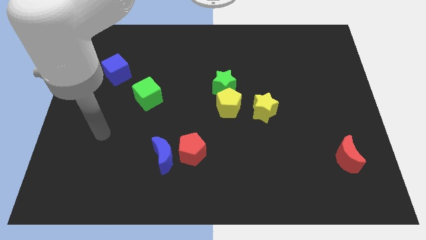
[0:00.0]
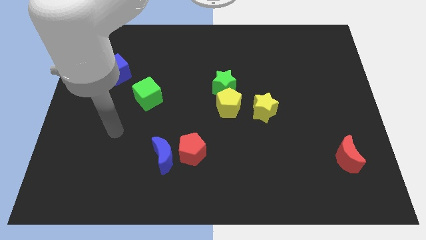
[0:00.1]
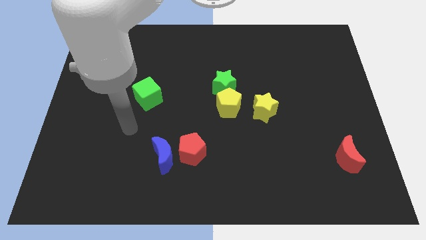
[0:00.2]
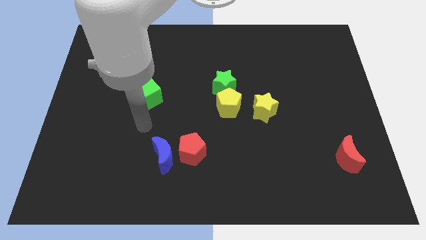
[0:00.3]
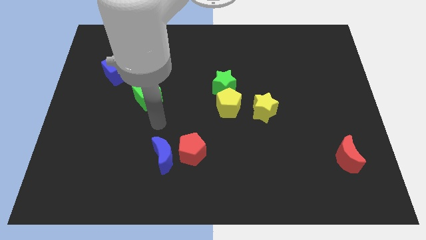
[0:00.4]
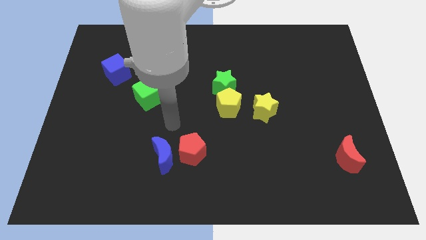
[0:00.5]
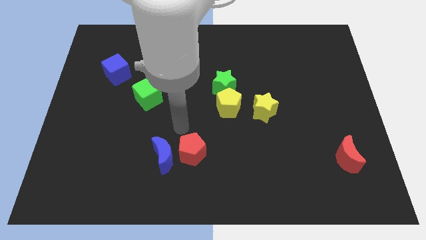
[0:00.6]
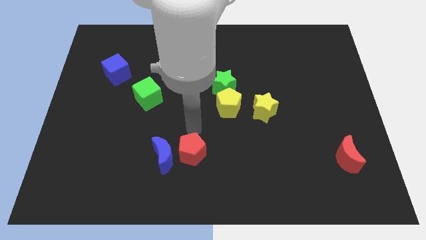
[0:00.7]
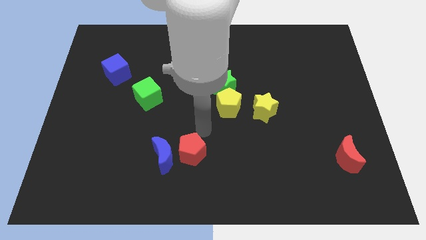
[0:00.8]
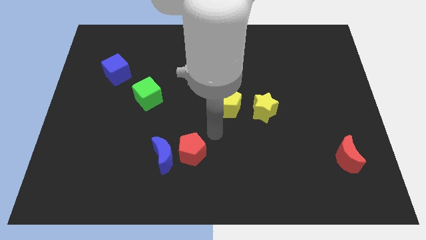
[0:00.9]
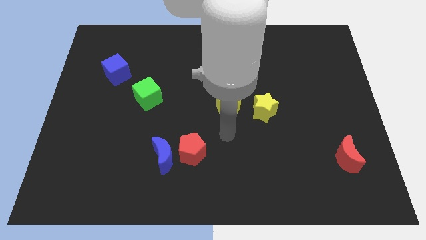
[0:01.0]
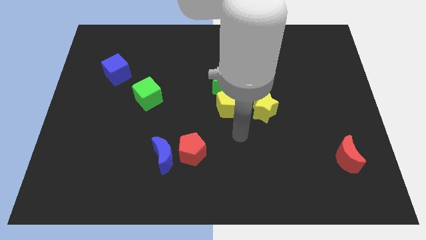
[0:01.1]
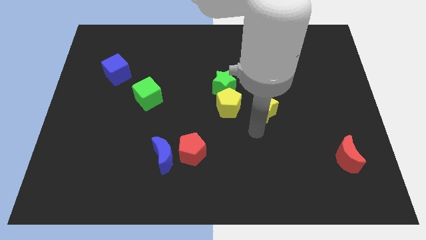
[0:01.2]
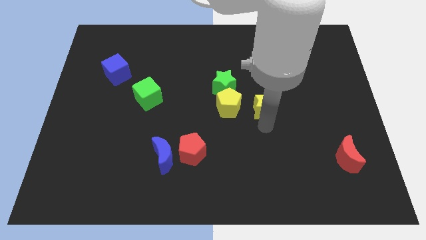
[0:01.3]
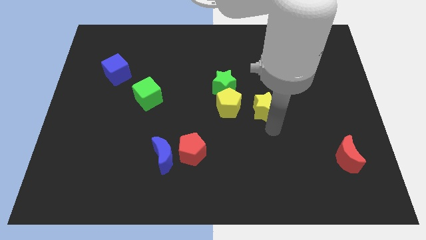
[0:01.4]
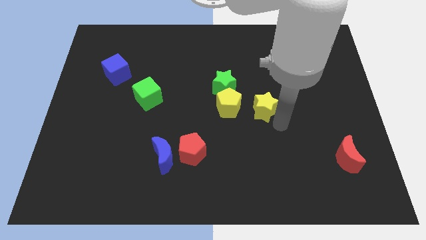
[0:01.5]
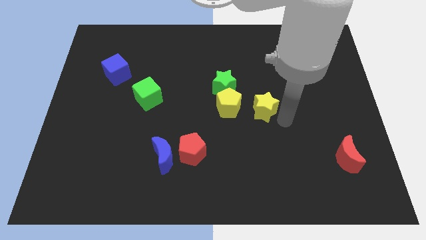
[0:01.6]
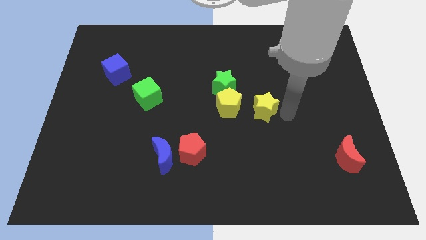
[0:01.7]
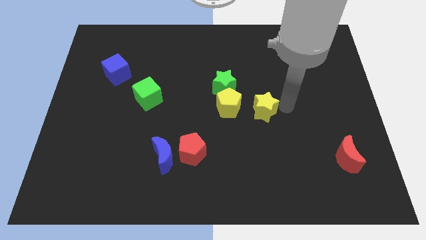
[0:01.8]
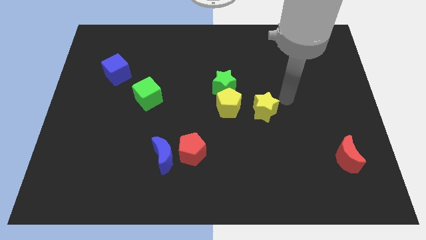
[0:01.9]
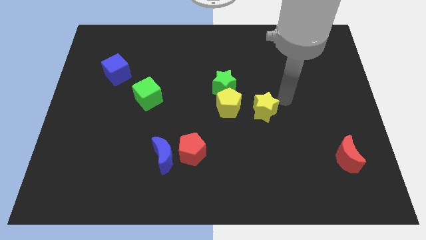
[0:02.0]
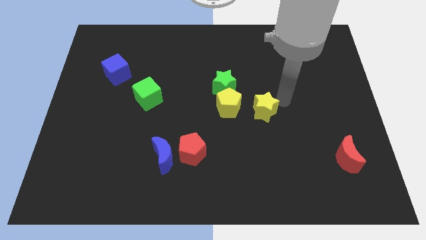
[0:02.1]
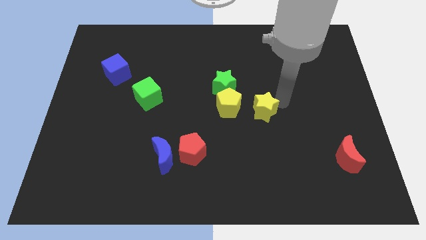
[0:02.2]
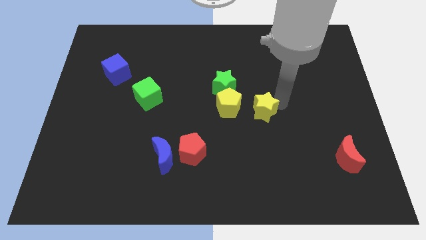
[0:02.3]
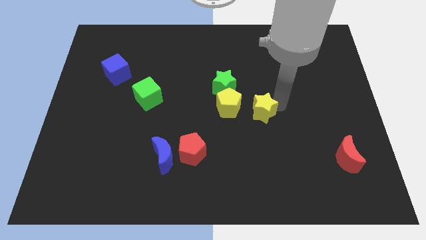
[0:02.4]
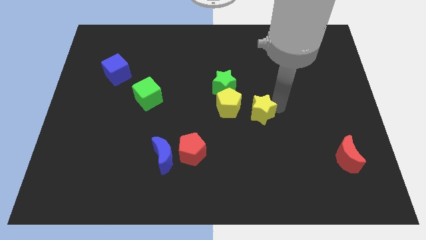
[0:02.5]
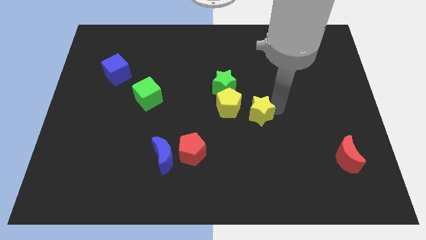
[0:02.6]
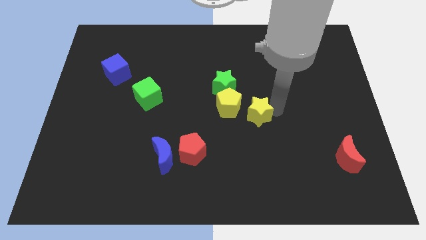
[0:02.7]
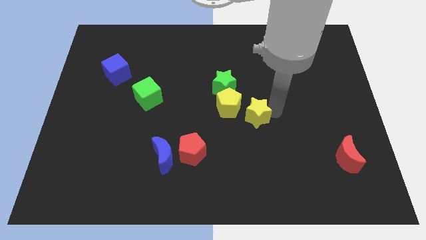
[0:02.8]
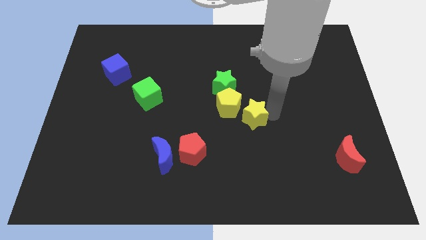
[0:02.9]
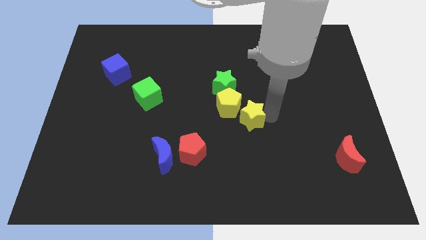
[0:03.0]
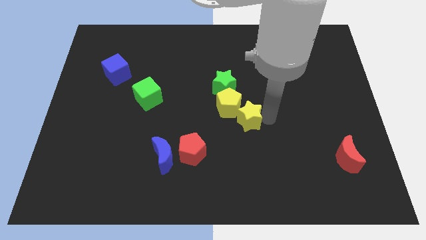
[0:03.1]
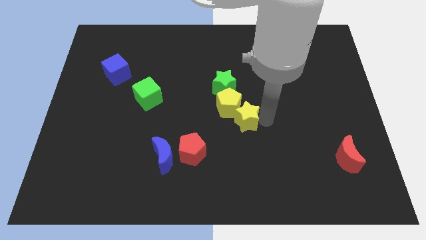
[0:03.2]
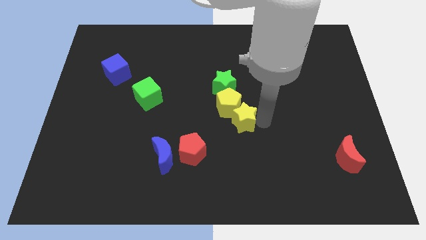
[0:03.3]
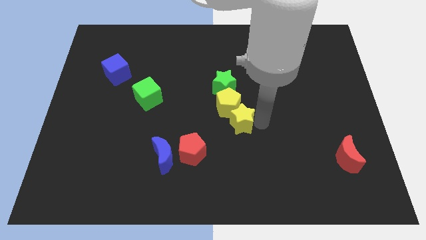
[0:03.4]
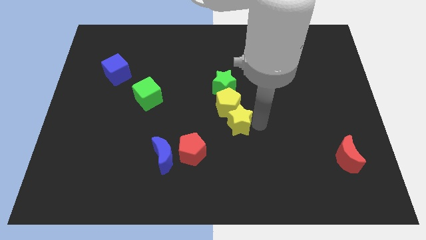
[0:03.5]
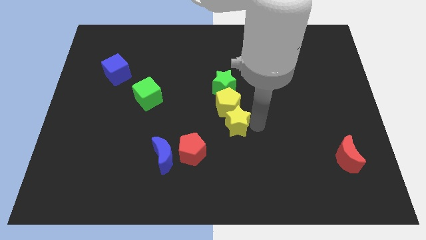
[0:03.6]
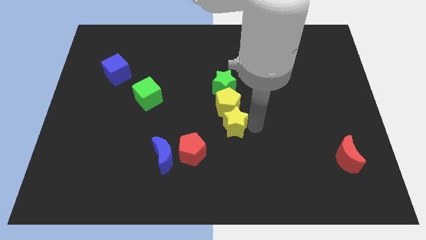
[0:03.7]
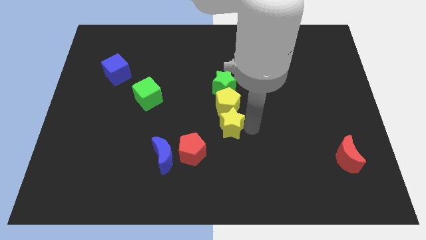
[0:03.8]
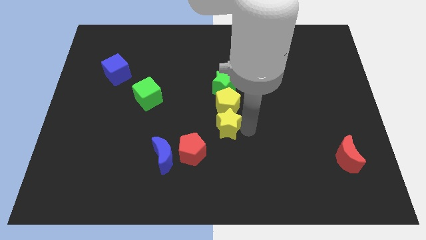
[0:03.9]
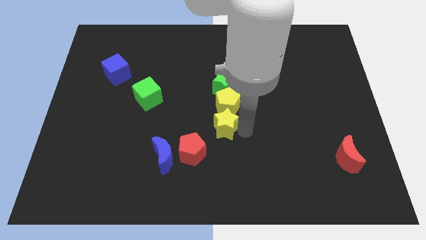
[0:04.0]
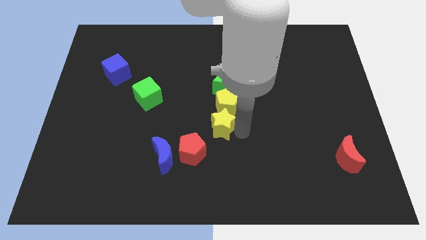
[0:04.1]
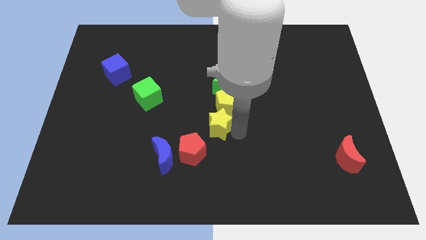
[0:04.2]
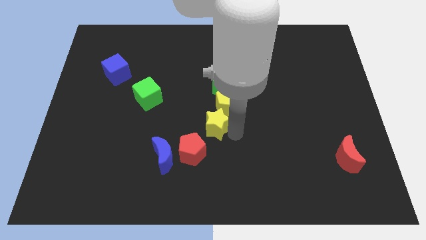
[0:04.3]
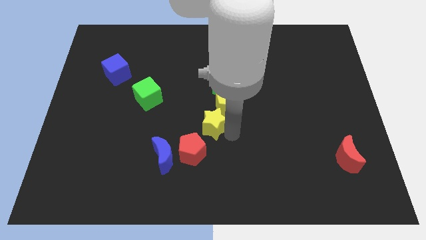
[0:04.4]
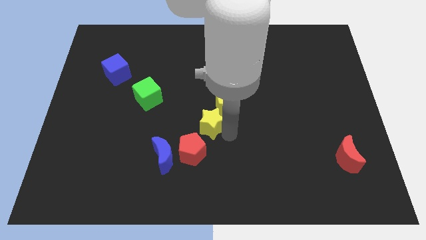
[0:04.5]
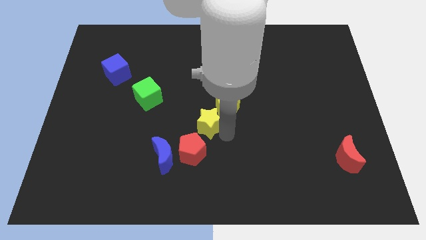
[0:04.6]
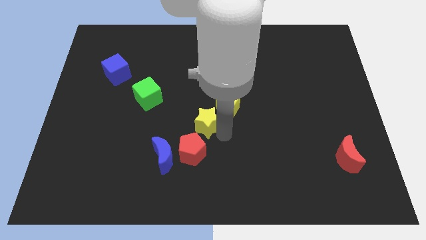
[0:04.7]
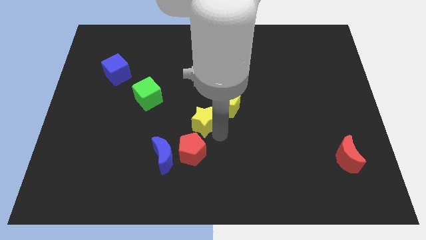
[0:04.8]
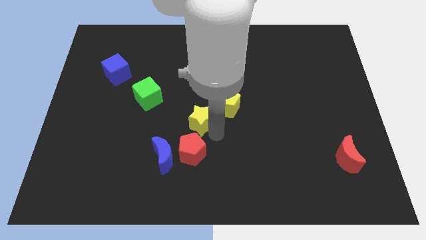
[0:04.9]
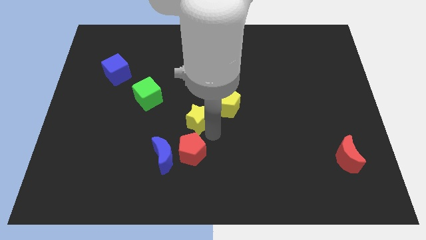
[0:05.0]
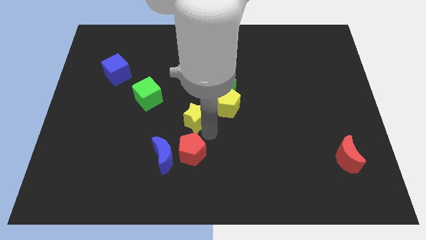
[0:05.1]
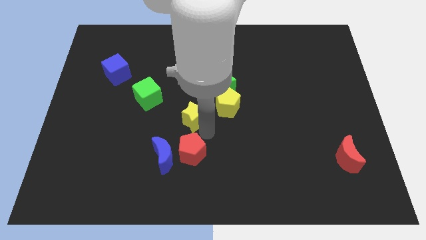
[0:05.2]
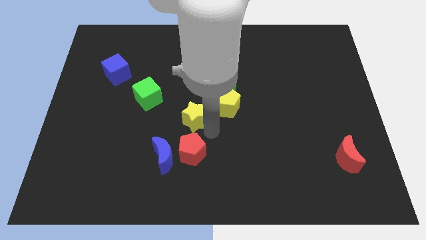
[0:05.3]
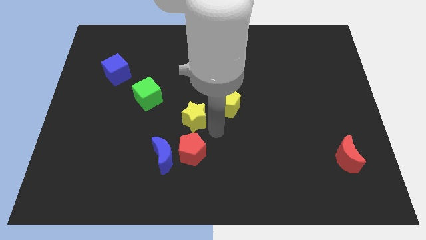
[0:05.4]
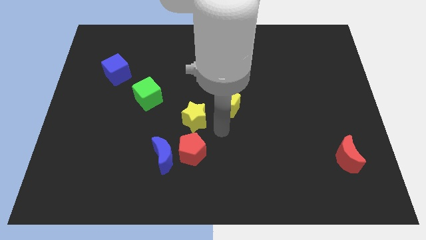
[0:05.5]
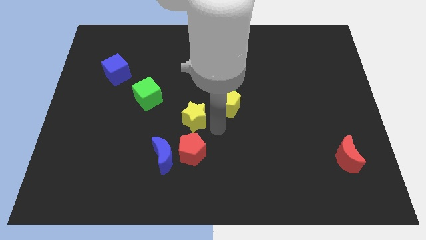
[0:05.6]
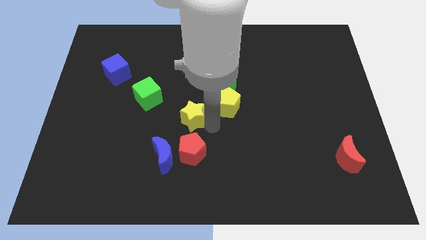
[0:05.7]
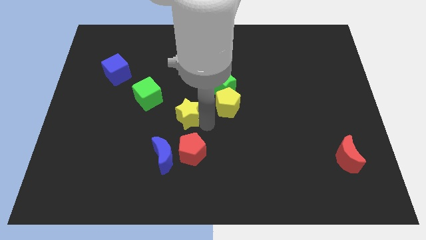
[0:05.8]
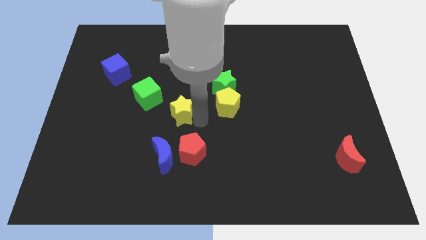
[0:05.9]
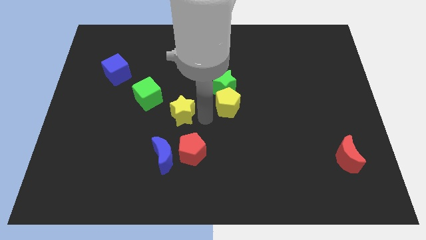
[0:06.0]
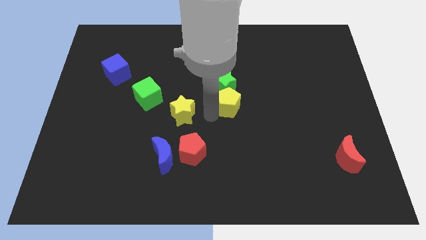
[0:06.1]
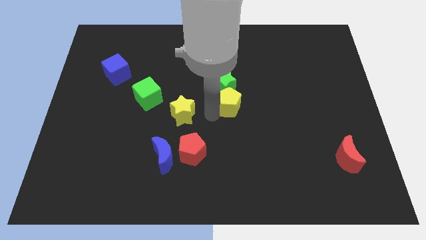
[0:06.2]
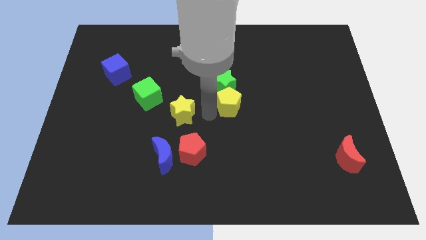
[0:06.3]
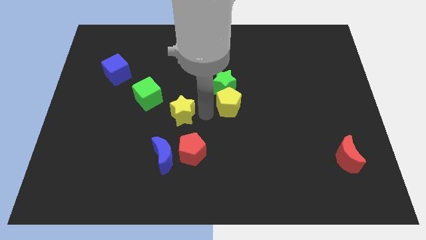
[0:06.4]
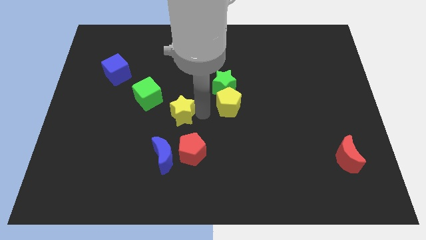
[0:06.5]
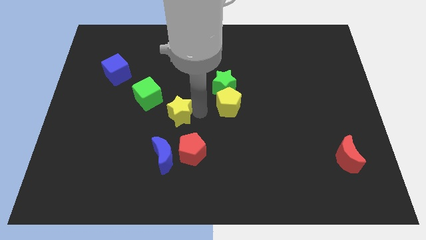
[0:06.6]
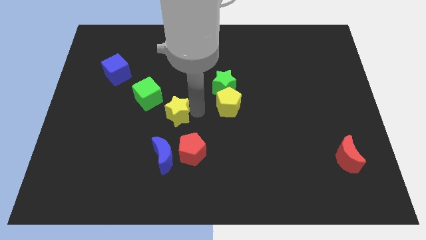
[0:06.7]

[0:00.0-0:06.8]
move the yellow star left

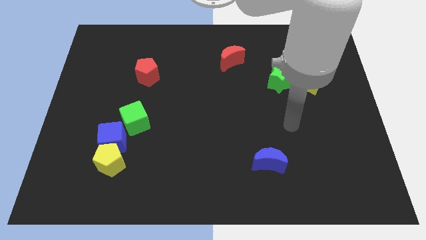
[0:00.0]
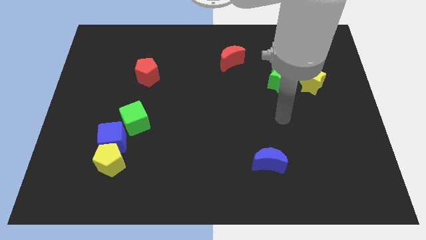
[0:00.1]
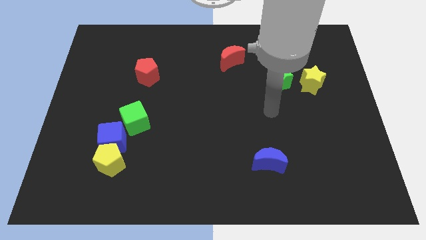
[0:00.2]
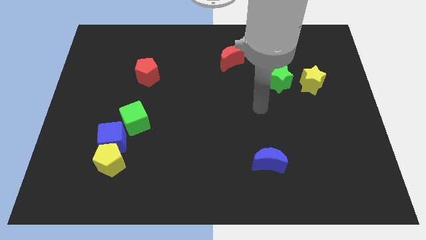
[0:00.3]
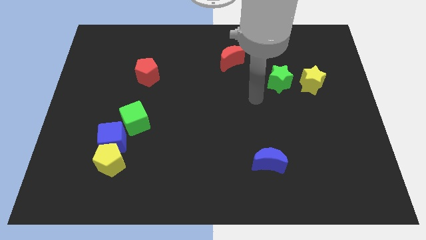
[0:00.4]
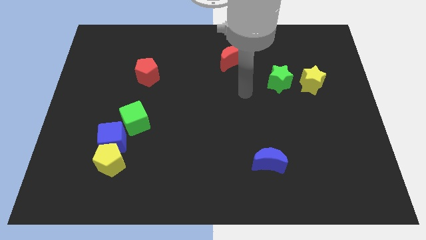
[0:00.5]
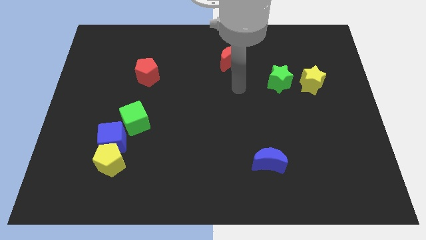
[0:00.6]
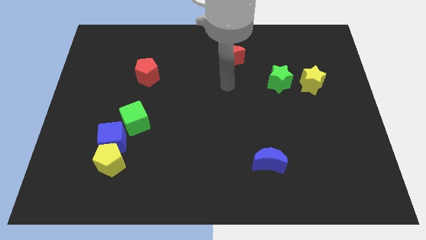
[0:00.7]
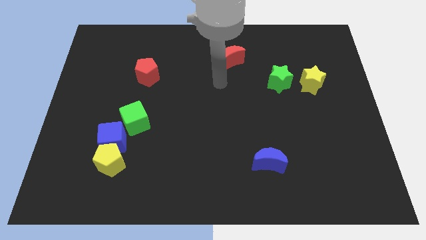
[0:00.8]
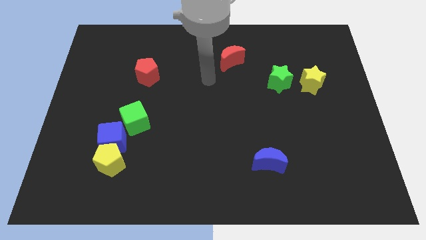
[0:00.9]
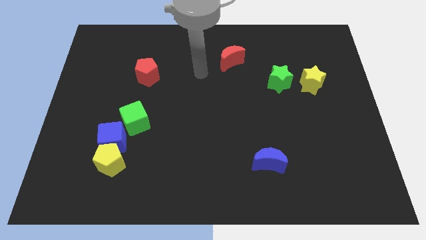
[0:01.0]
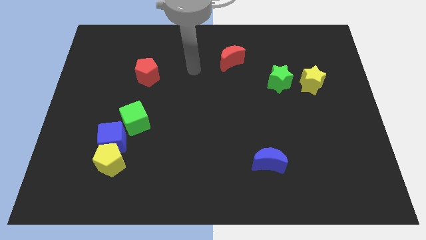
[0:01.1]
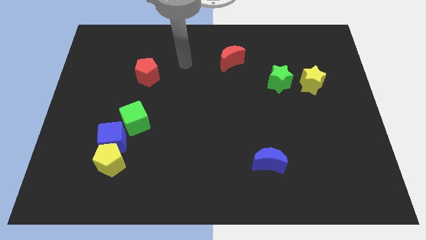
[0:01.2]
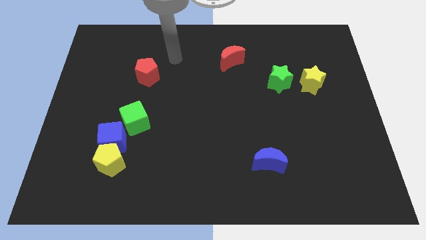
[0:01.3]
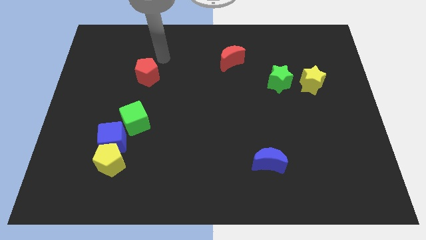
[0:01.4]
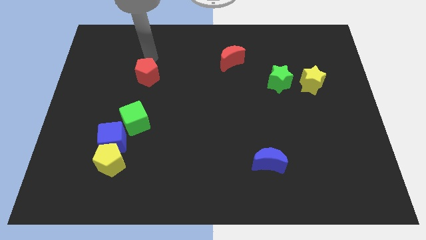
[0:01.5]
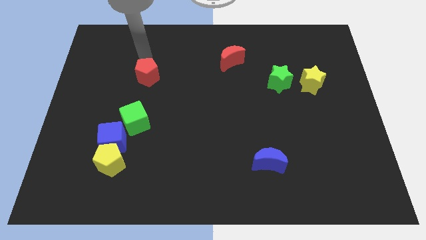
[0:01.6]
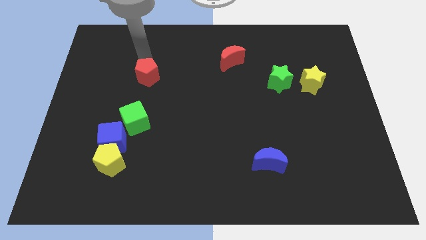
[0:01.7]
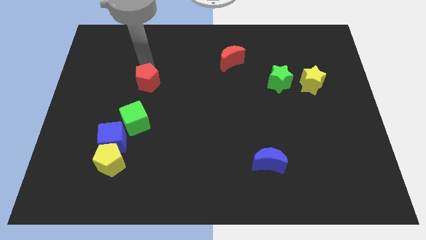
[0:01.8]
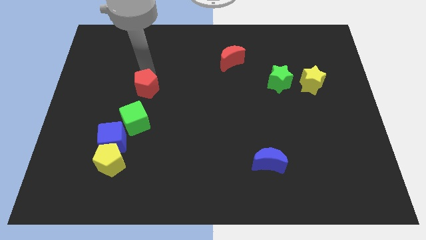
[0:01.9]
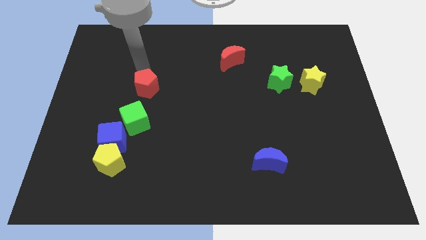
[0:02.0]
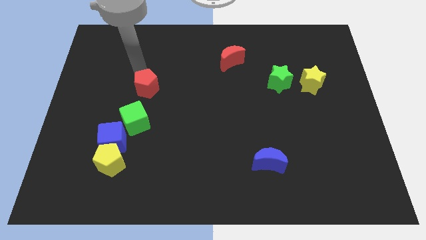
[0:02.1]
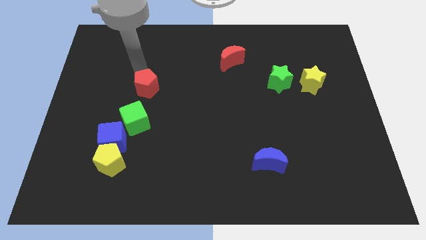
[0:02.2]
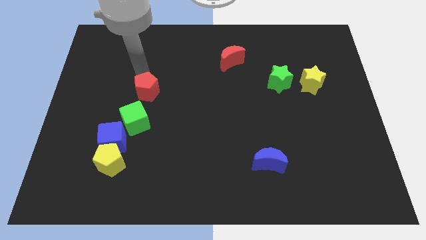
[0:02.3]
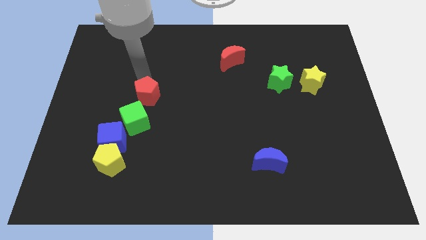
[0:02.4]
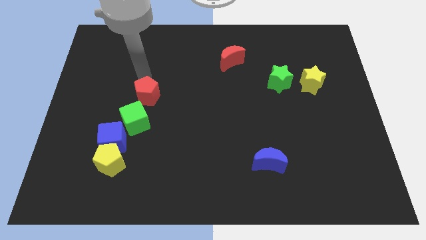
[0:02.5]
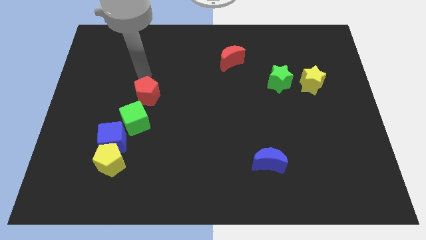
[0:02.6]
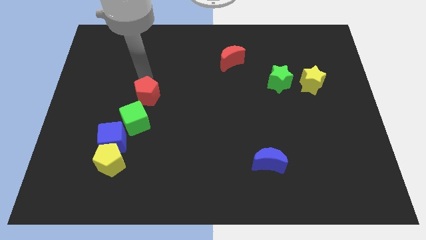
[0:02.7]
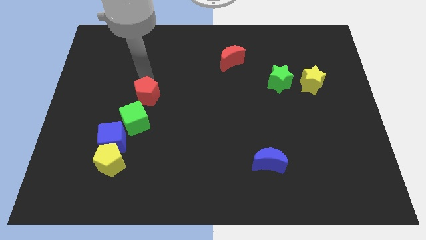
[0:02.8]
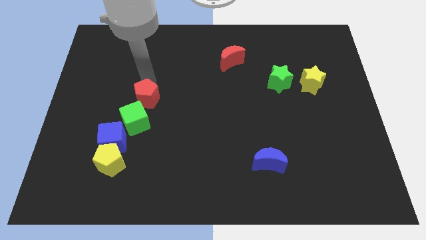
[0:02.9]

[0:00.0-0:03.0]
slightly move the red pentagon downwards
